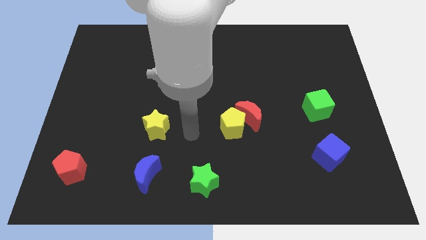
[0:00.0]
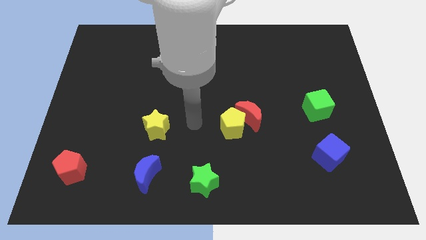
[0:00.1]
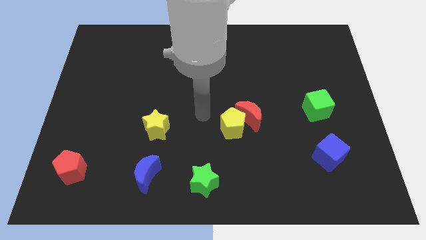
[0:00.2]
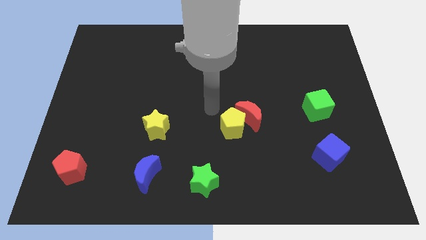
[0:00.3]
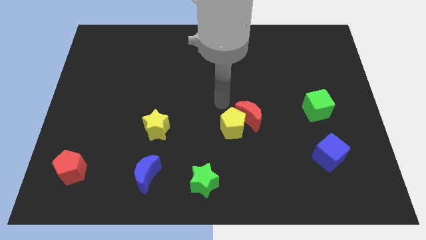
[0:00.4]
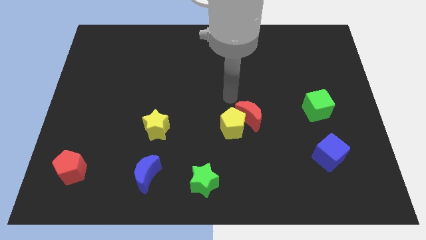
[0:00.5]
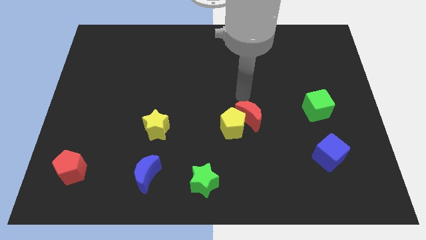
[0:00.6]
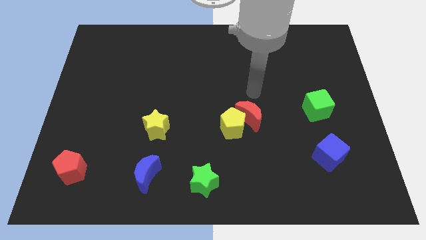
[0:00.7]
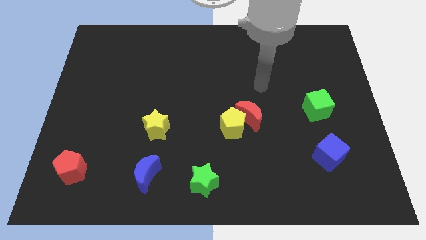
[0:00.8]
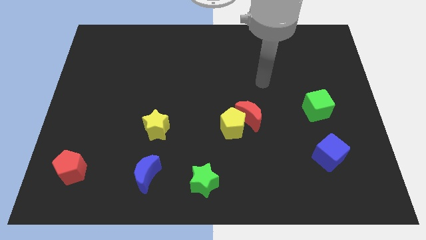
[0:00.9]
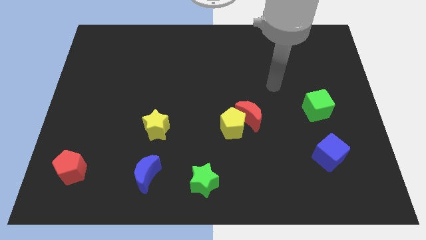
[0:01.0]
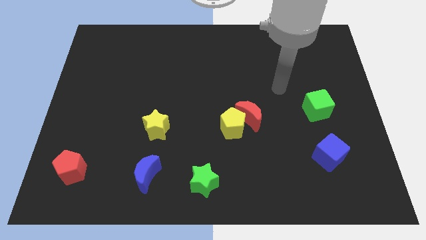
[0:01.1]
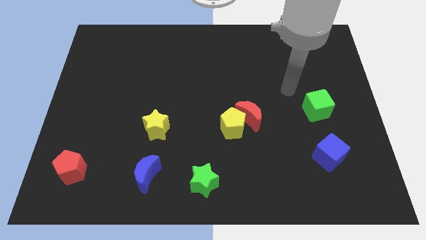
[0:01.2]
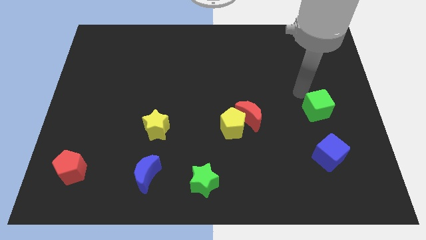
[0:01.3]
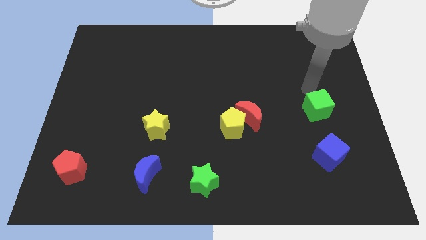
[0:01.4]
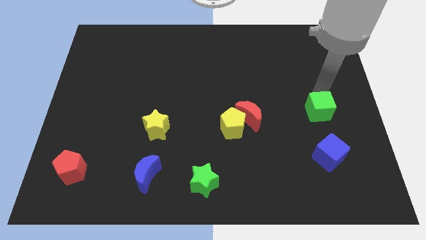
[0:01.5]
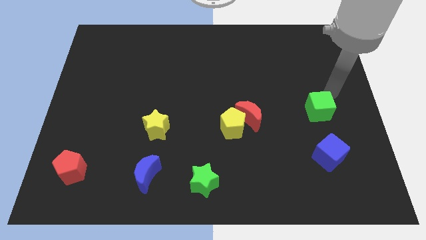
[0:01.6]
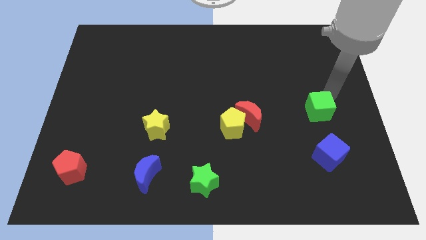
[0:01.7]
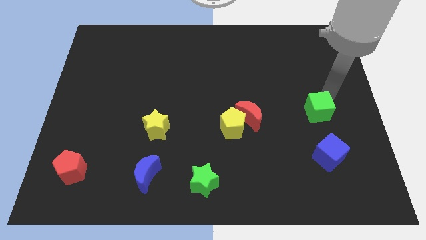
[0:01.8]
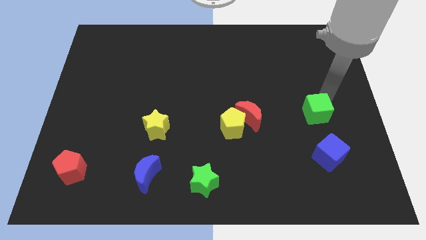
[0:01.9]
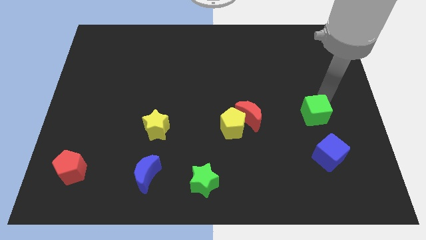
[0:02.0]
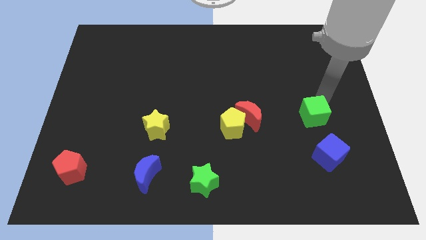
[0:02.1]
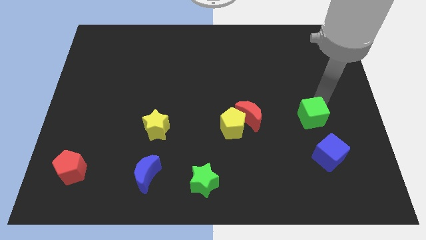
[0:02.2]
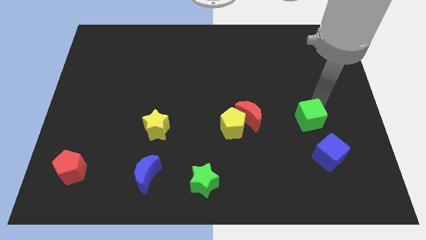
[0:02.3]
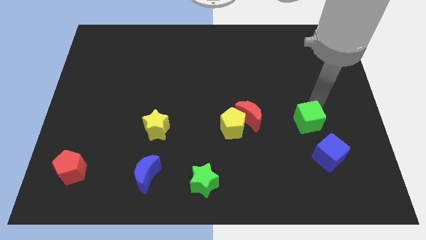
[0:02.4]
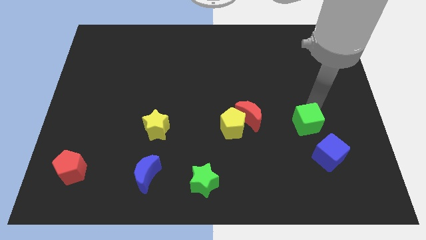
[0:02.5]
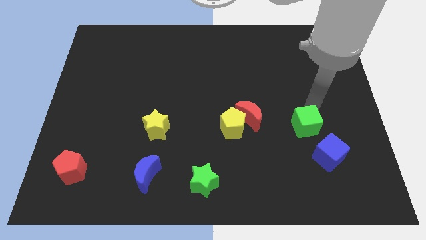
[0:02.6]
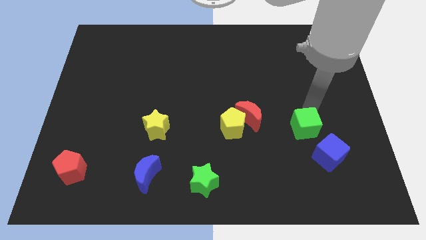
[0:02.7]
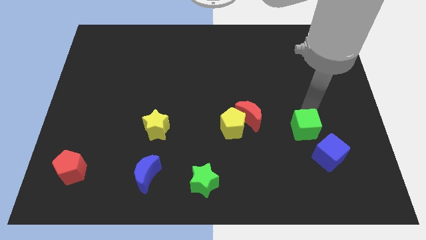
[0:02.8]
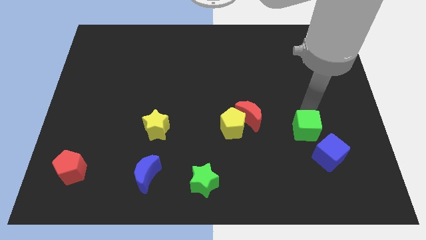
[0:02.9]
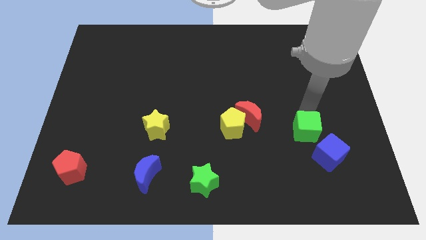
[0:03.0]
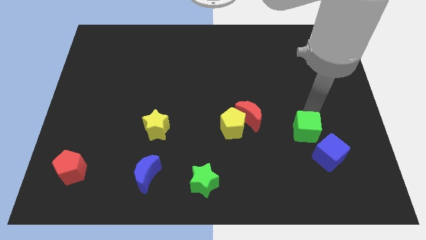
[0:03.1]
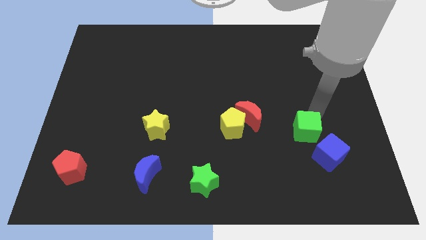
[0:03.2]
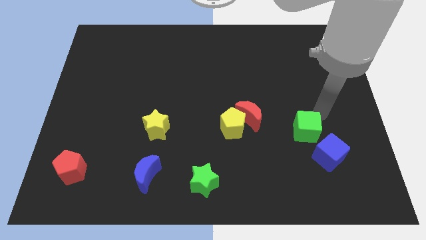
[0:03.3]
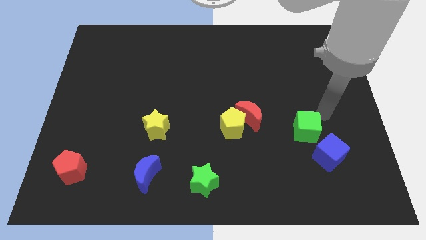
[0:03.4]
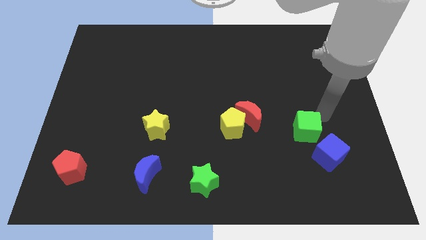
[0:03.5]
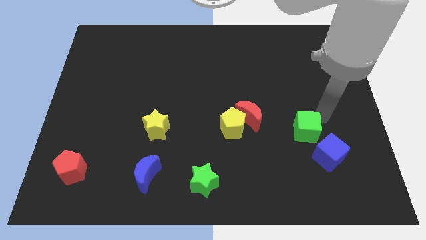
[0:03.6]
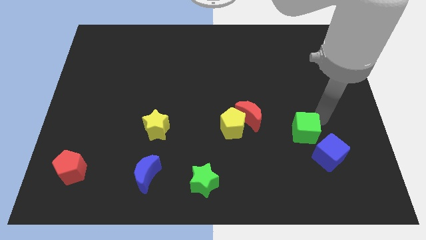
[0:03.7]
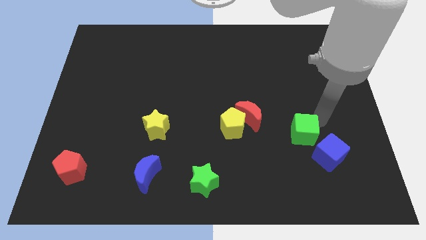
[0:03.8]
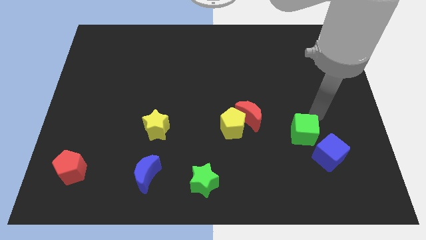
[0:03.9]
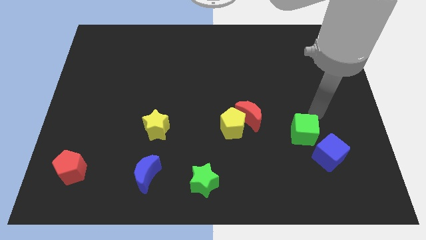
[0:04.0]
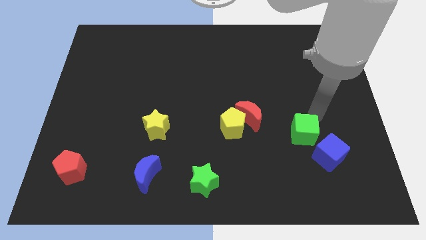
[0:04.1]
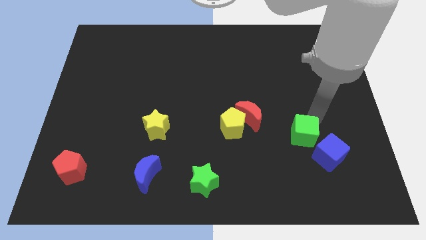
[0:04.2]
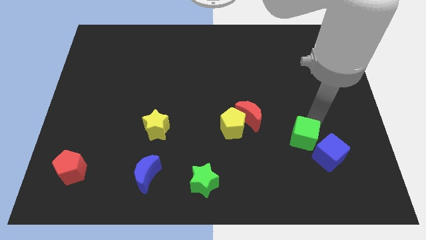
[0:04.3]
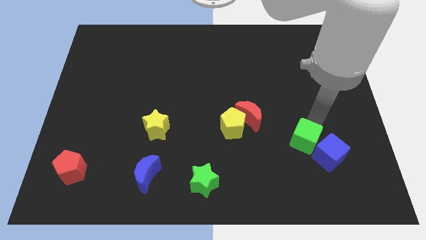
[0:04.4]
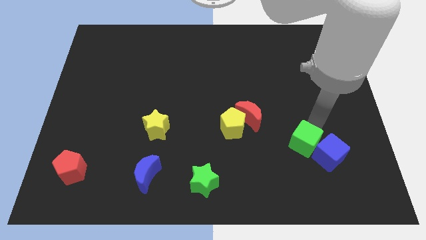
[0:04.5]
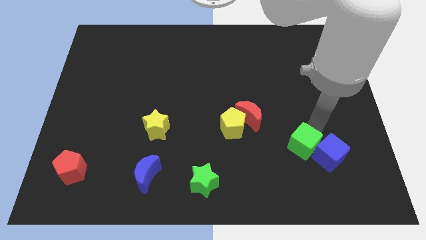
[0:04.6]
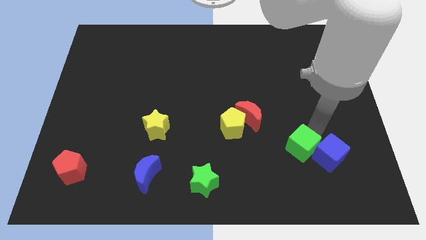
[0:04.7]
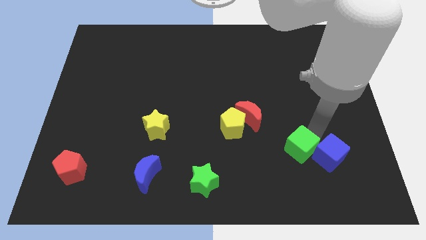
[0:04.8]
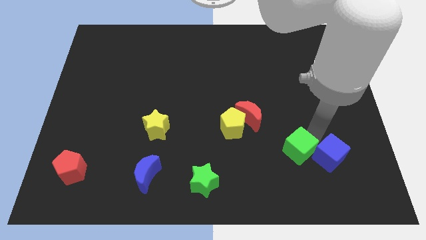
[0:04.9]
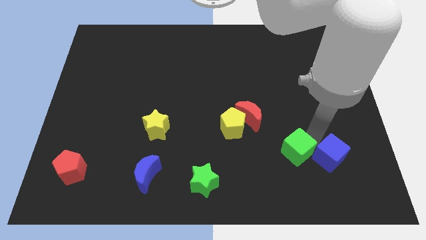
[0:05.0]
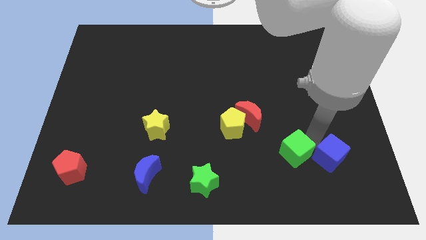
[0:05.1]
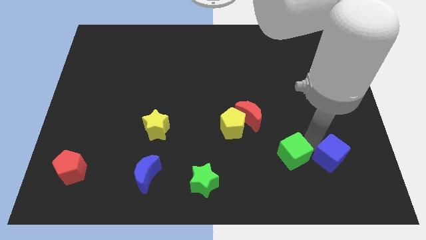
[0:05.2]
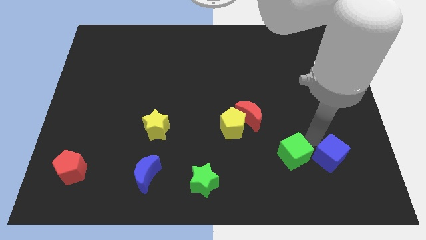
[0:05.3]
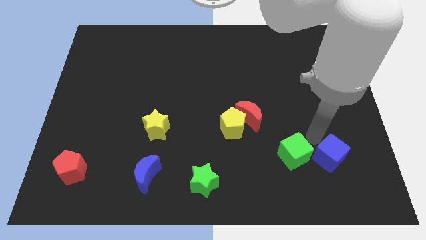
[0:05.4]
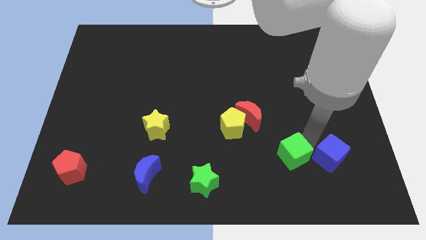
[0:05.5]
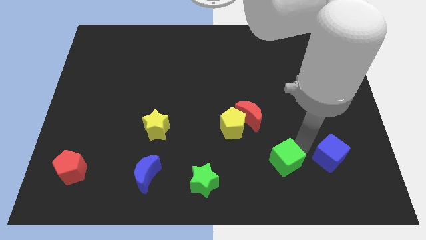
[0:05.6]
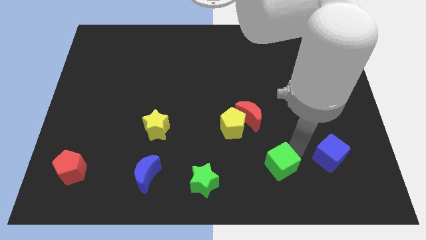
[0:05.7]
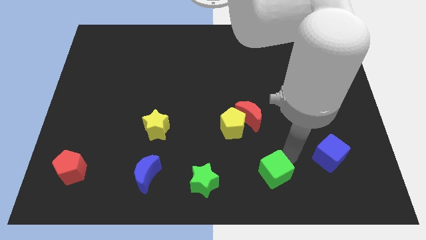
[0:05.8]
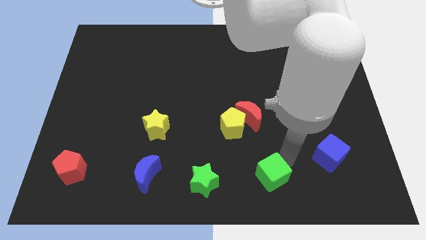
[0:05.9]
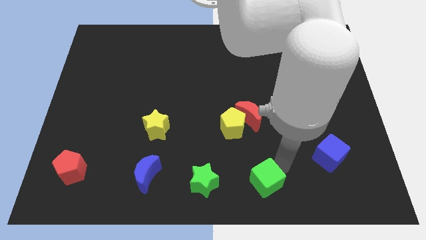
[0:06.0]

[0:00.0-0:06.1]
push the green cube to the bottom side

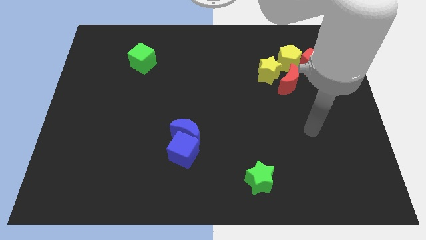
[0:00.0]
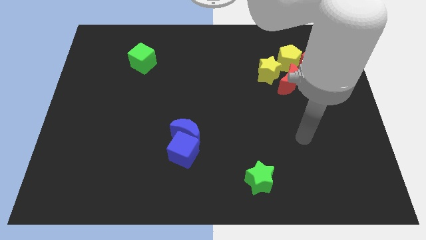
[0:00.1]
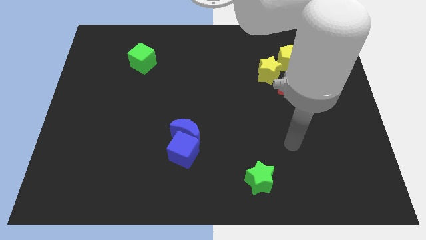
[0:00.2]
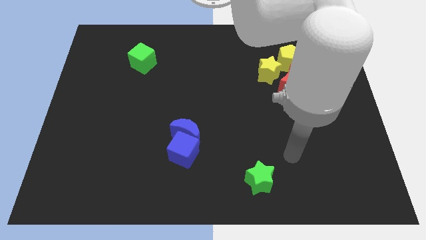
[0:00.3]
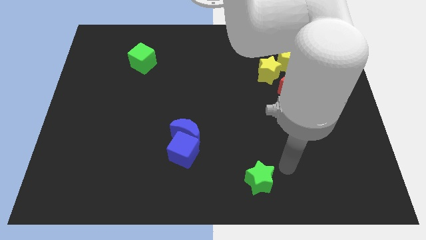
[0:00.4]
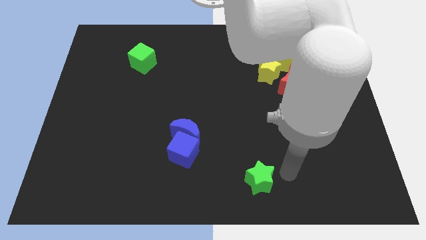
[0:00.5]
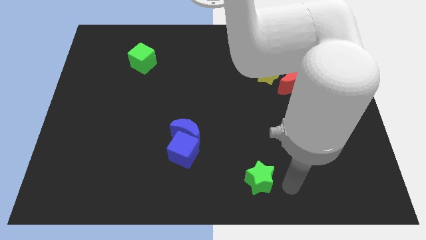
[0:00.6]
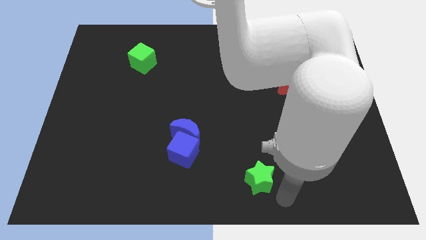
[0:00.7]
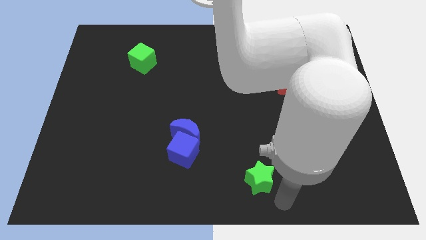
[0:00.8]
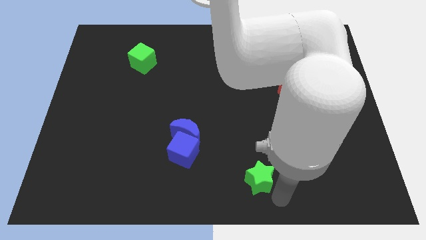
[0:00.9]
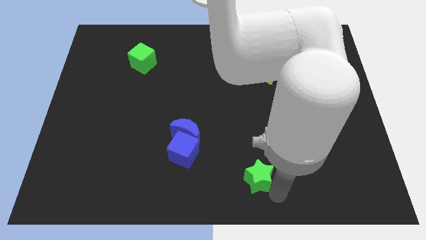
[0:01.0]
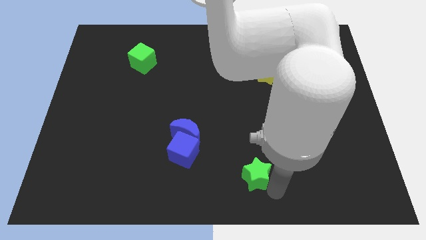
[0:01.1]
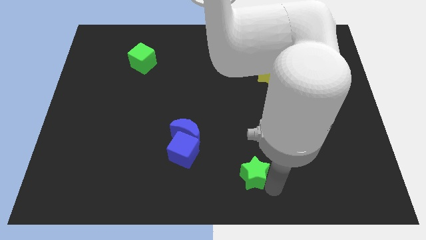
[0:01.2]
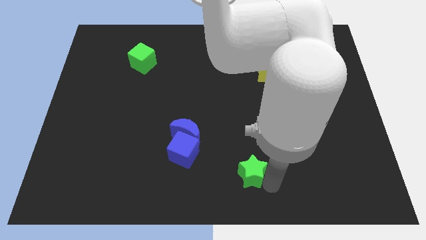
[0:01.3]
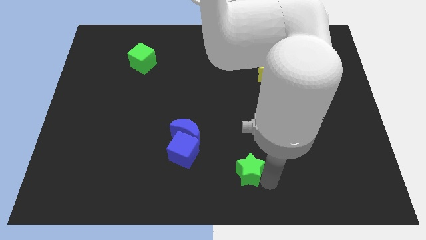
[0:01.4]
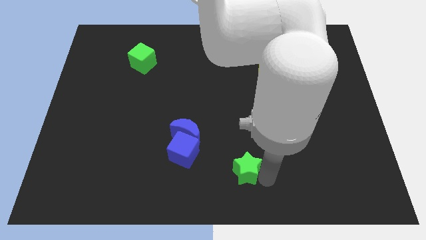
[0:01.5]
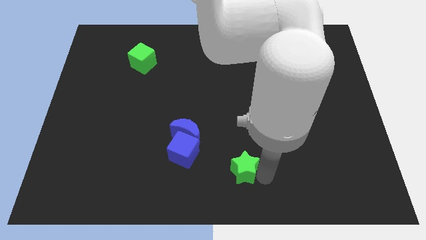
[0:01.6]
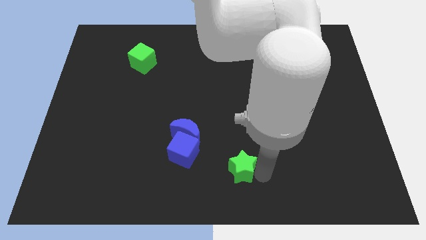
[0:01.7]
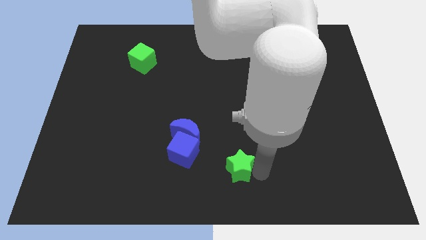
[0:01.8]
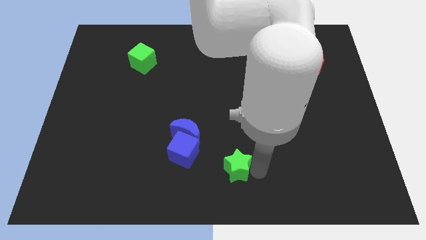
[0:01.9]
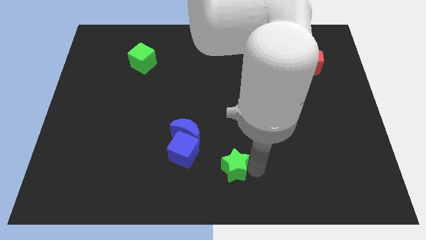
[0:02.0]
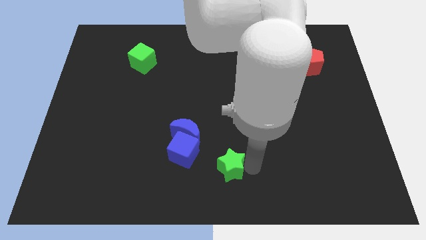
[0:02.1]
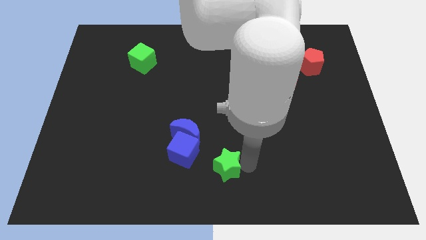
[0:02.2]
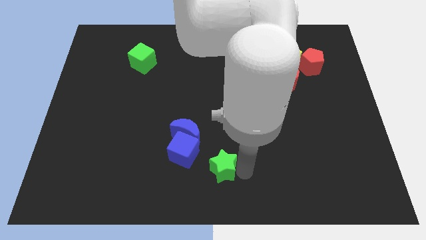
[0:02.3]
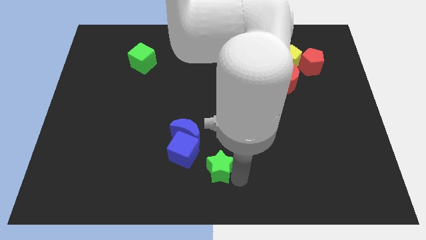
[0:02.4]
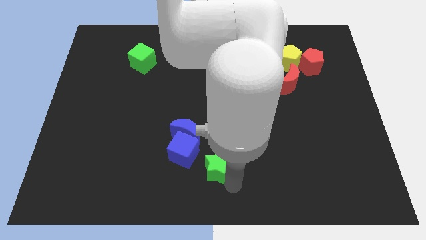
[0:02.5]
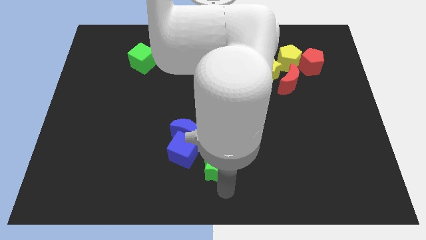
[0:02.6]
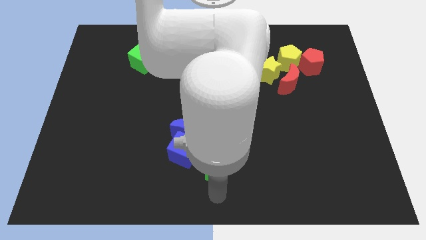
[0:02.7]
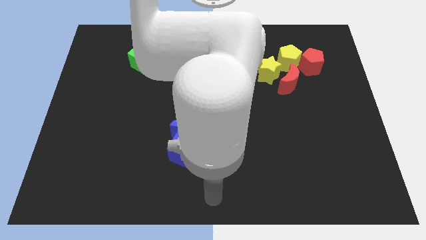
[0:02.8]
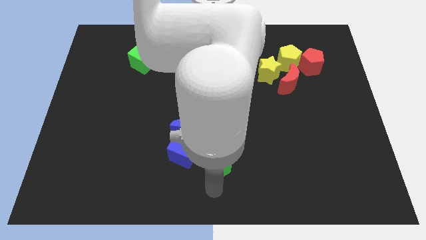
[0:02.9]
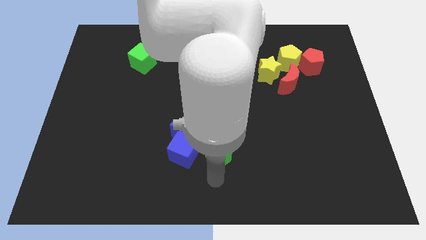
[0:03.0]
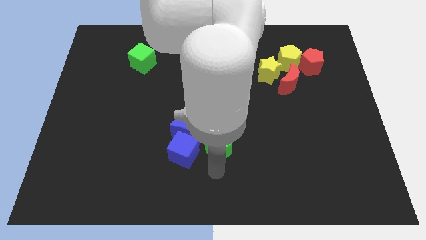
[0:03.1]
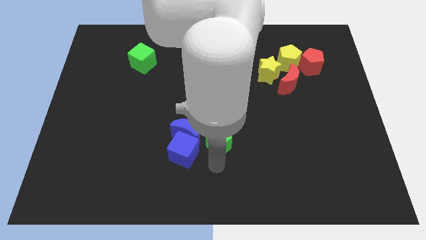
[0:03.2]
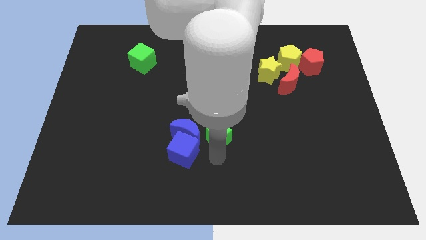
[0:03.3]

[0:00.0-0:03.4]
move the green star to the center of the board
